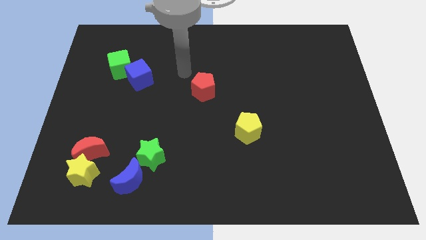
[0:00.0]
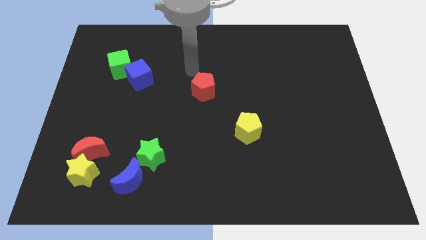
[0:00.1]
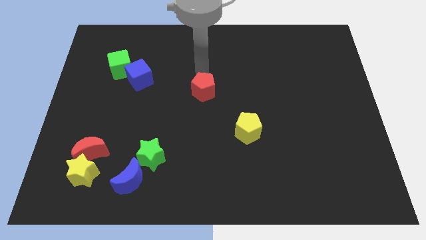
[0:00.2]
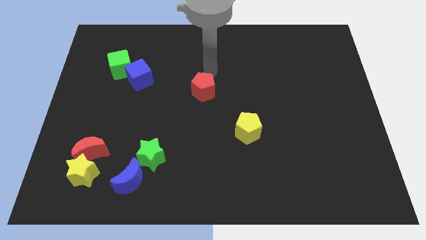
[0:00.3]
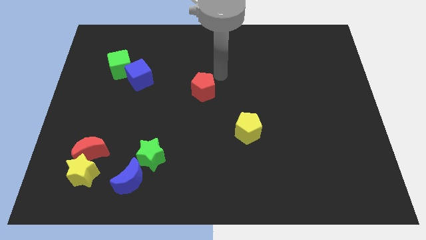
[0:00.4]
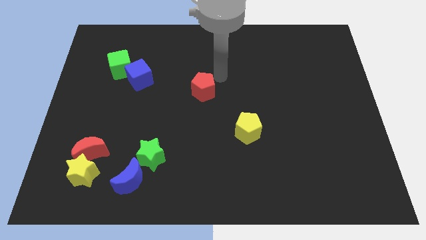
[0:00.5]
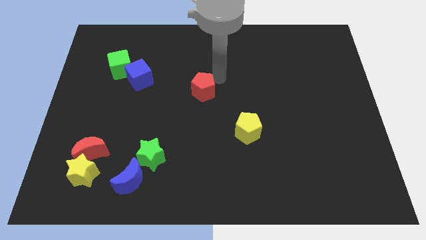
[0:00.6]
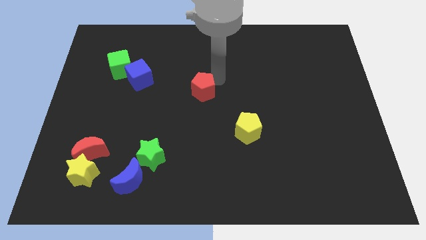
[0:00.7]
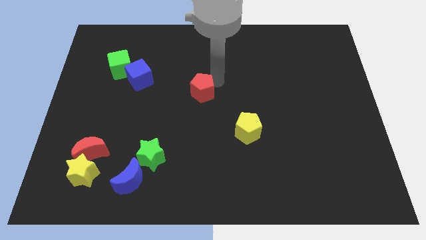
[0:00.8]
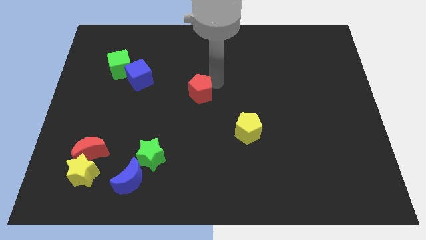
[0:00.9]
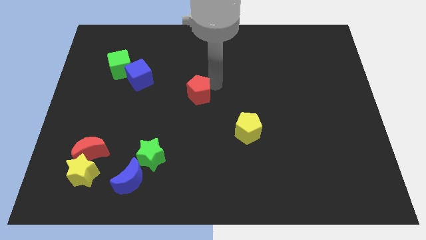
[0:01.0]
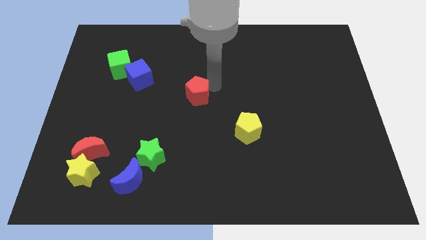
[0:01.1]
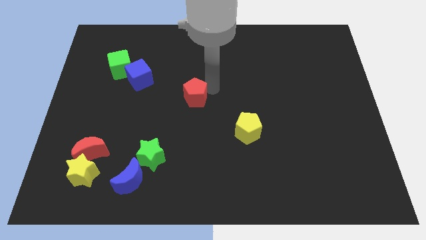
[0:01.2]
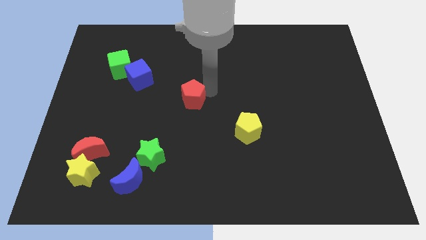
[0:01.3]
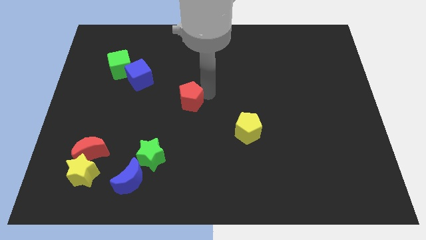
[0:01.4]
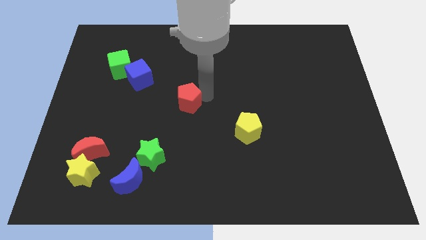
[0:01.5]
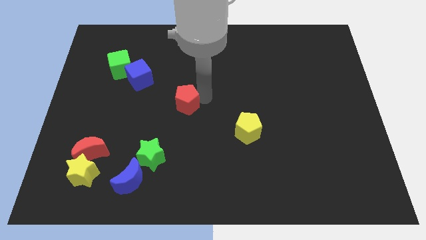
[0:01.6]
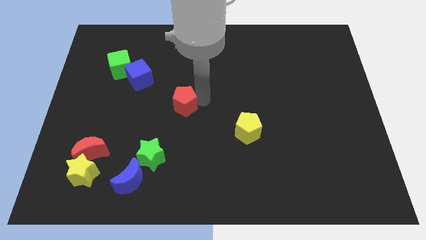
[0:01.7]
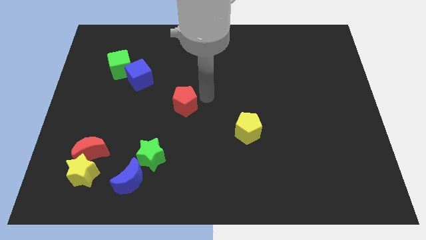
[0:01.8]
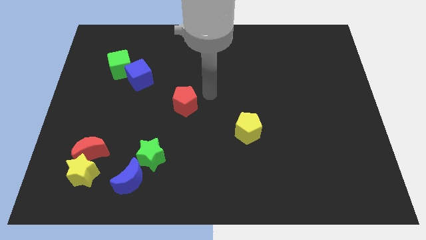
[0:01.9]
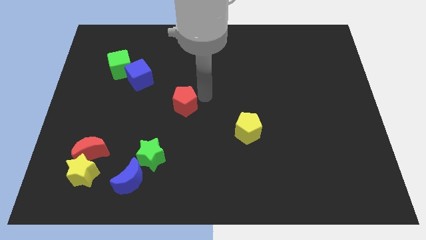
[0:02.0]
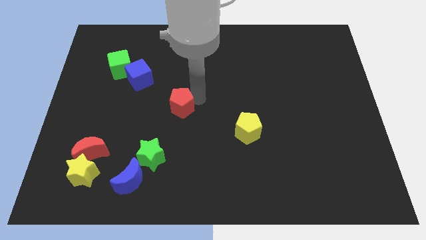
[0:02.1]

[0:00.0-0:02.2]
slide the red pentagon slightly downwards and then left

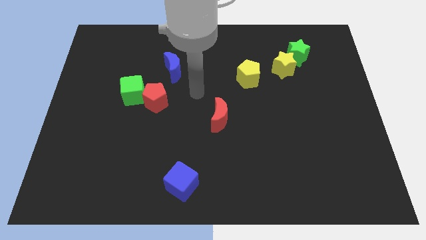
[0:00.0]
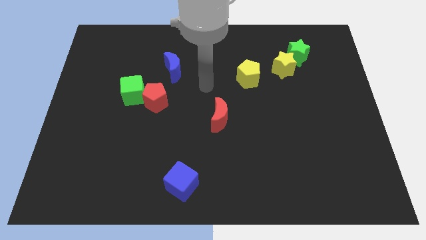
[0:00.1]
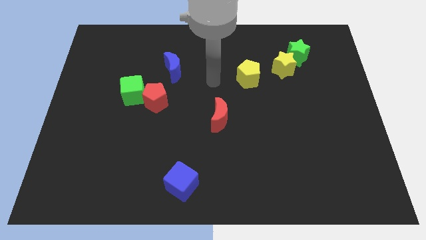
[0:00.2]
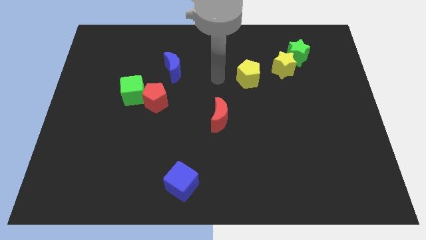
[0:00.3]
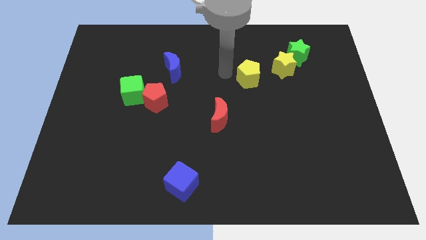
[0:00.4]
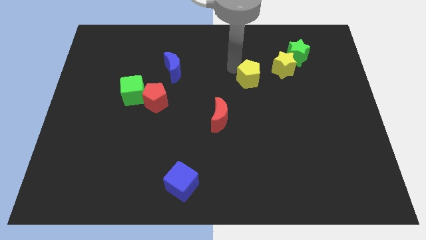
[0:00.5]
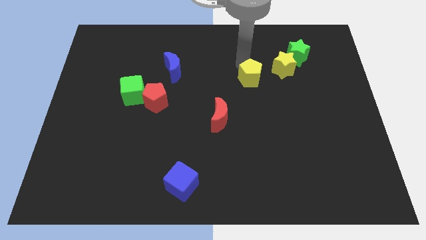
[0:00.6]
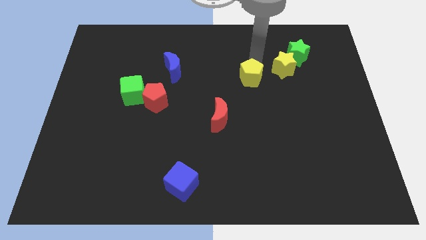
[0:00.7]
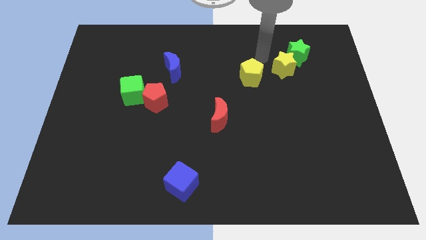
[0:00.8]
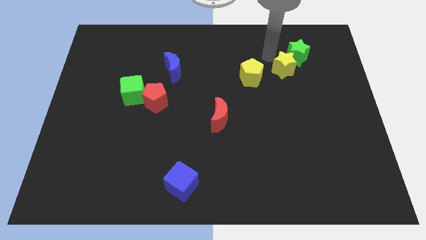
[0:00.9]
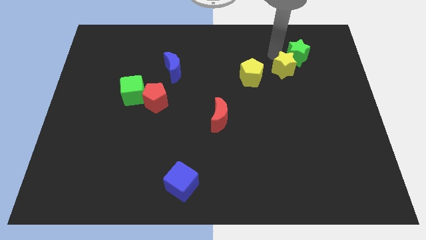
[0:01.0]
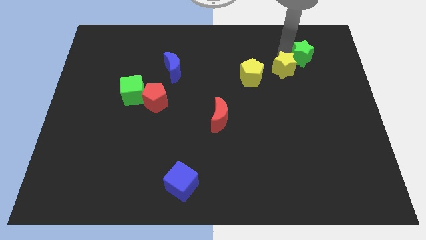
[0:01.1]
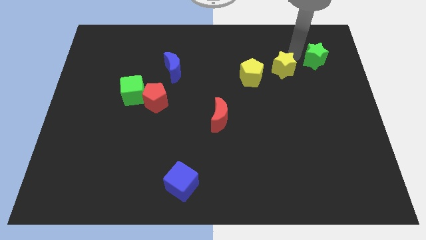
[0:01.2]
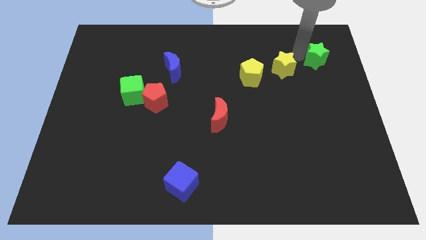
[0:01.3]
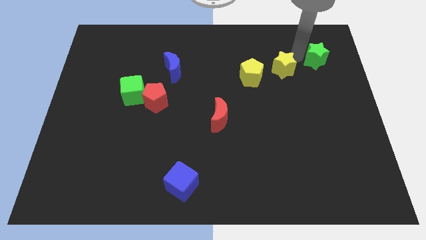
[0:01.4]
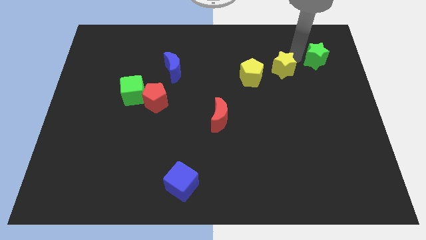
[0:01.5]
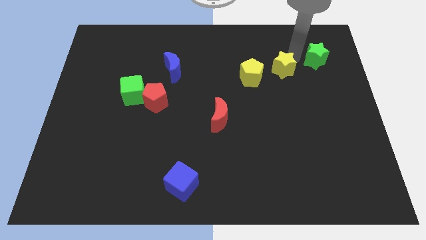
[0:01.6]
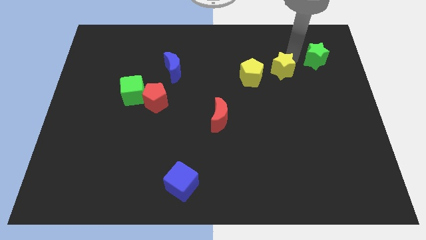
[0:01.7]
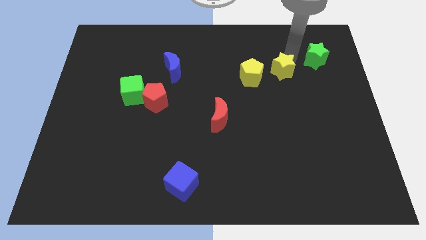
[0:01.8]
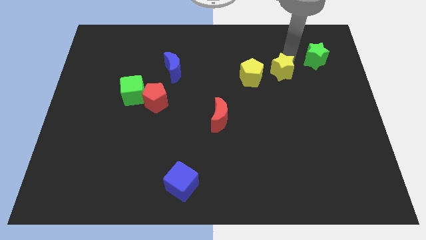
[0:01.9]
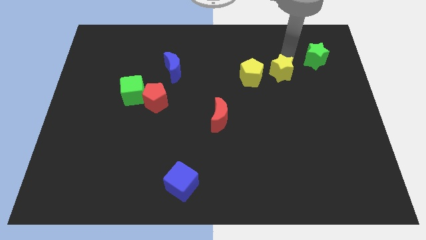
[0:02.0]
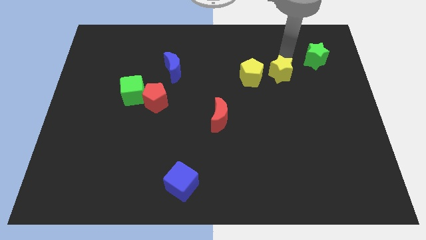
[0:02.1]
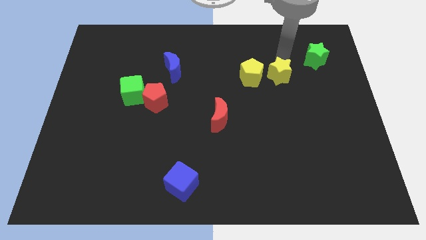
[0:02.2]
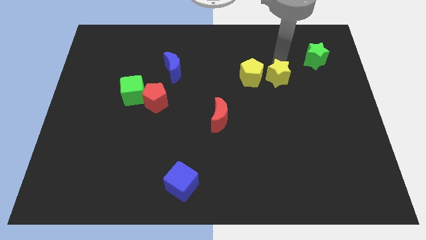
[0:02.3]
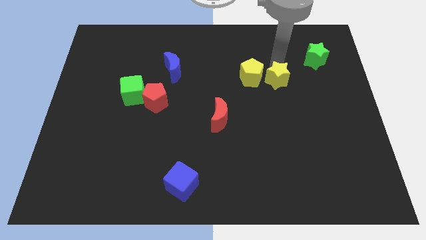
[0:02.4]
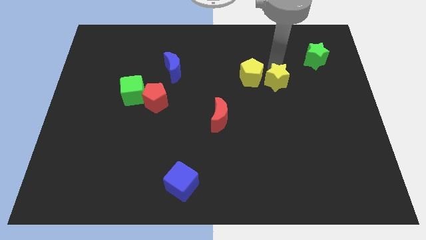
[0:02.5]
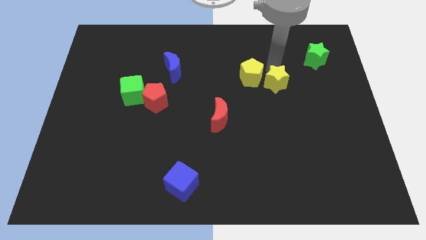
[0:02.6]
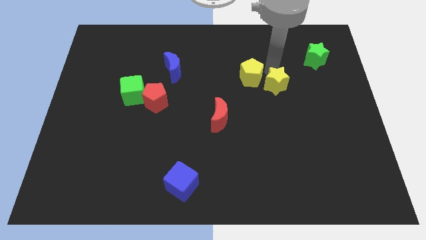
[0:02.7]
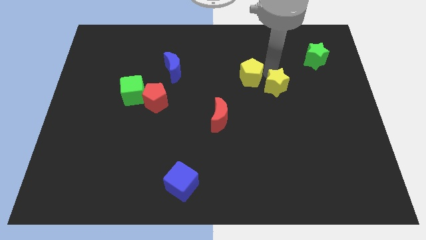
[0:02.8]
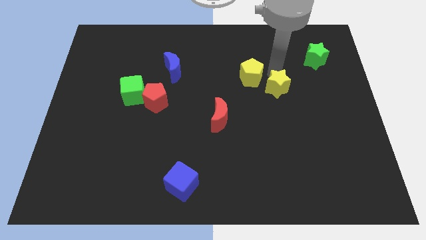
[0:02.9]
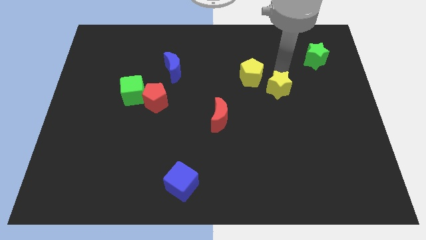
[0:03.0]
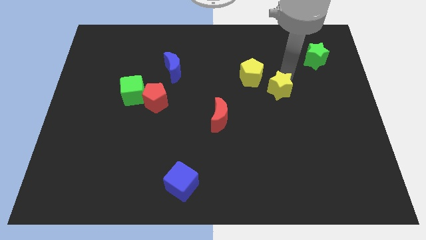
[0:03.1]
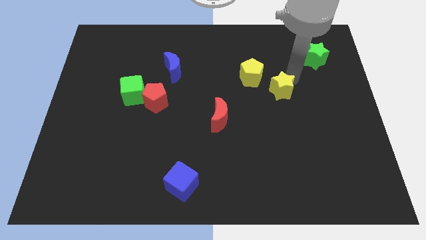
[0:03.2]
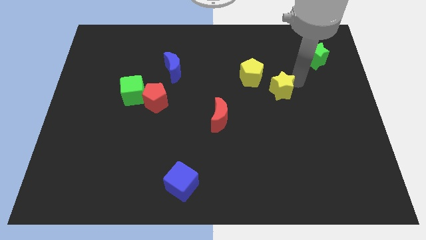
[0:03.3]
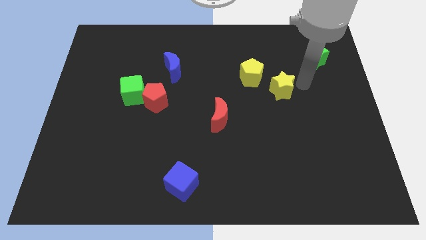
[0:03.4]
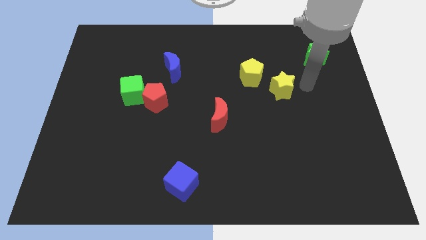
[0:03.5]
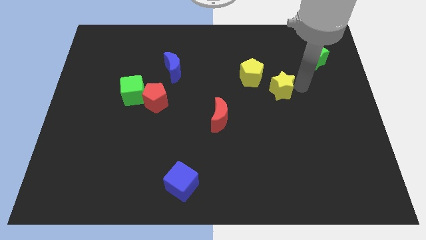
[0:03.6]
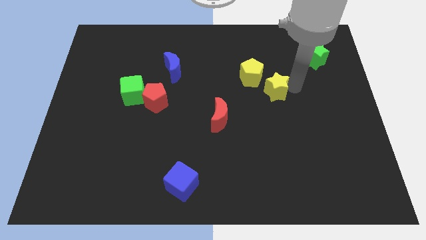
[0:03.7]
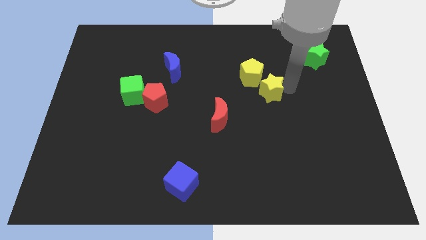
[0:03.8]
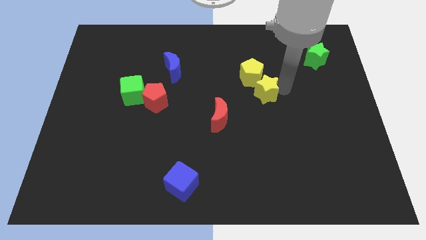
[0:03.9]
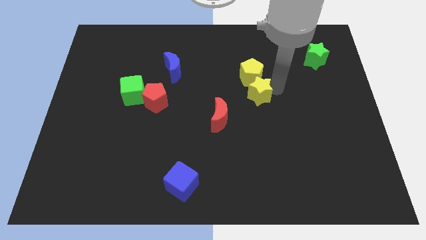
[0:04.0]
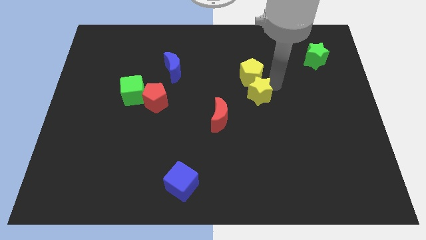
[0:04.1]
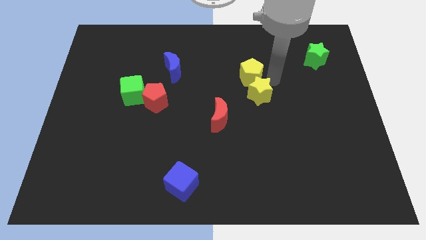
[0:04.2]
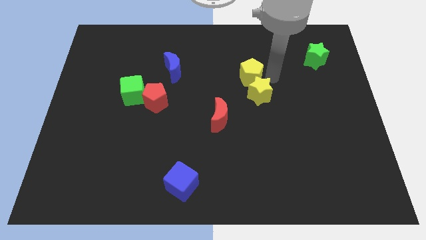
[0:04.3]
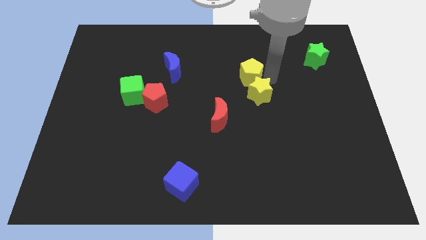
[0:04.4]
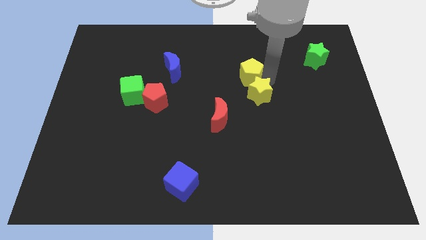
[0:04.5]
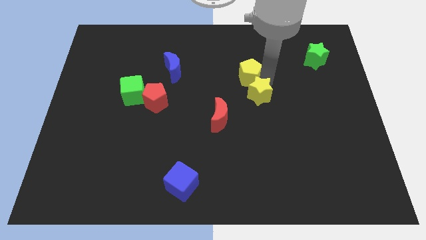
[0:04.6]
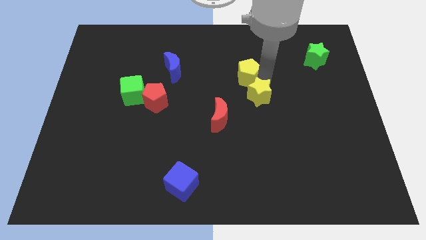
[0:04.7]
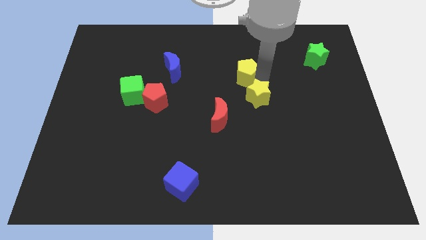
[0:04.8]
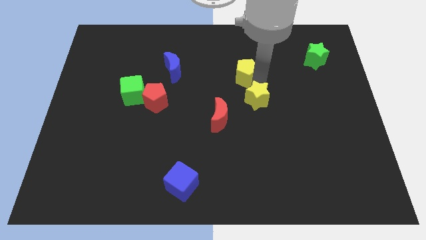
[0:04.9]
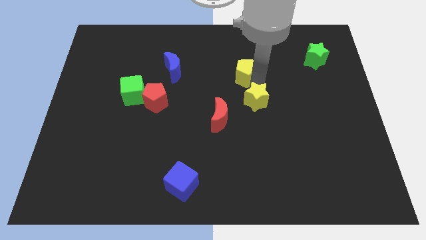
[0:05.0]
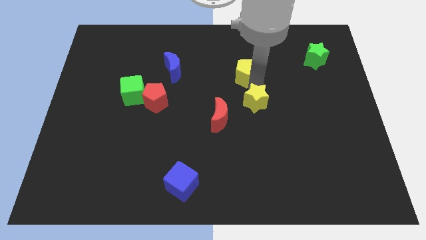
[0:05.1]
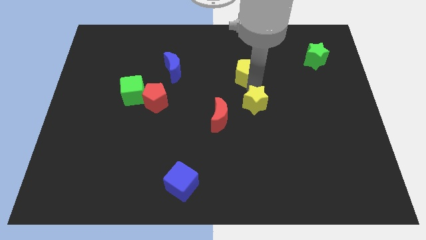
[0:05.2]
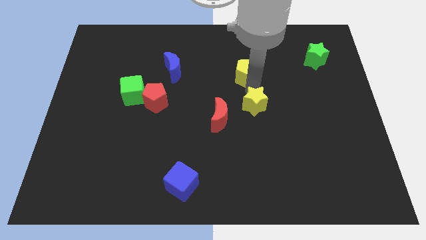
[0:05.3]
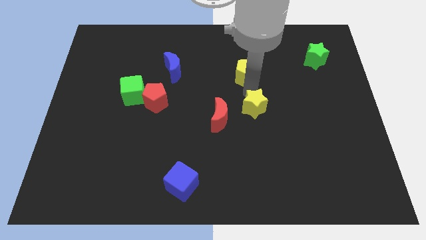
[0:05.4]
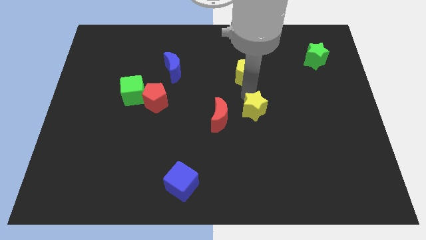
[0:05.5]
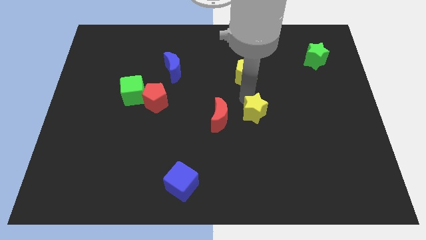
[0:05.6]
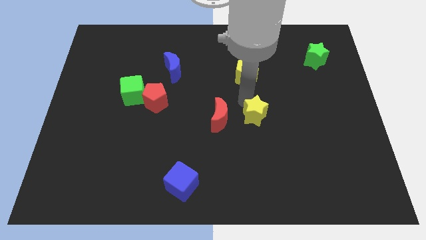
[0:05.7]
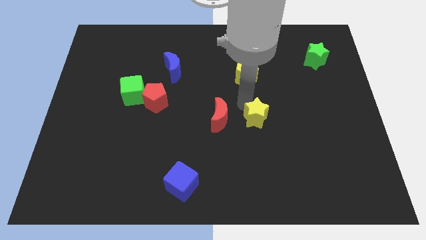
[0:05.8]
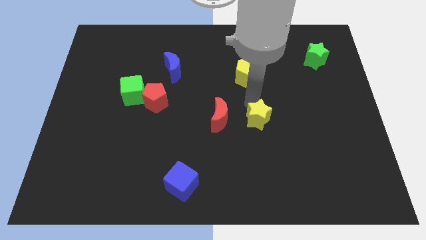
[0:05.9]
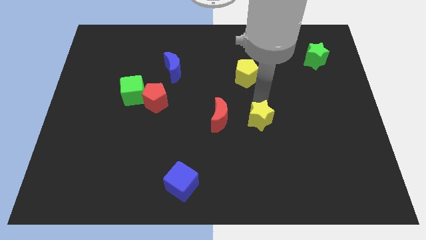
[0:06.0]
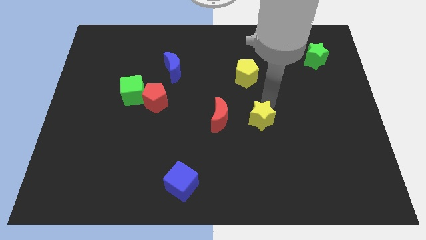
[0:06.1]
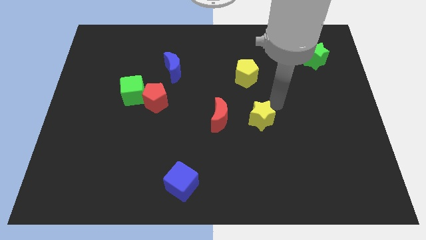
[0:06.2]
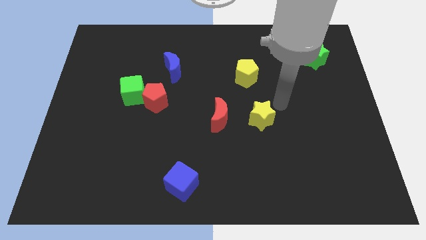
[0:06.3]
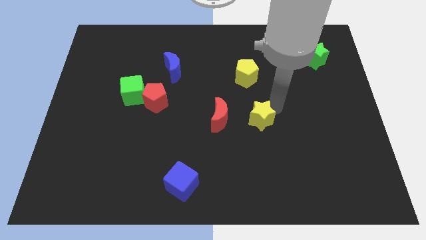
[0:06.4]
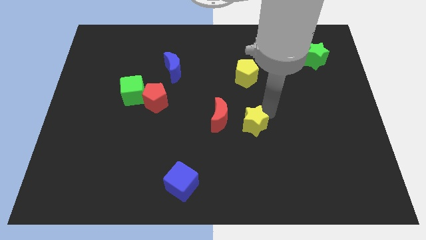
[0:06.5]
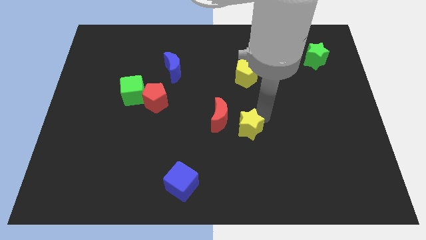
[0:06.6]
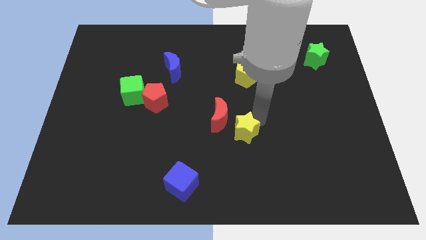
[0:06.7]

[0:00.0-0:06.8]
move the yellow star downwards and then to the left
